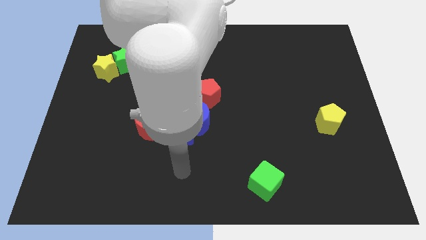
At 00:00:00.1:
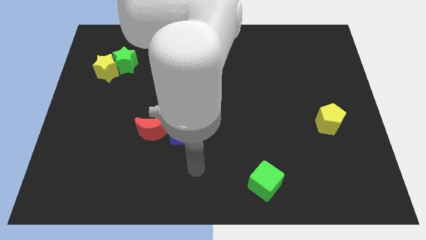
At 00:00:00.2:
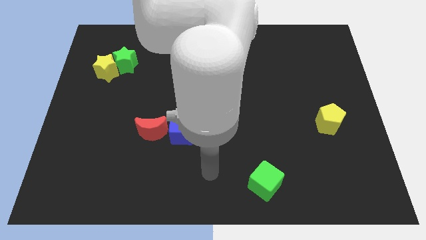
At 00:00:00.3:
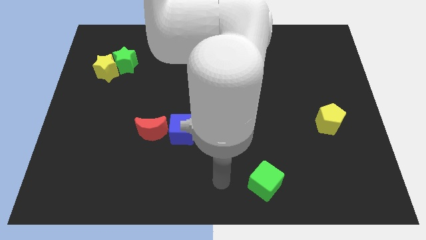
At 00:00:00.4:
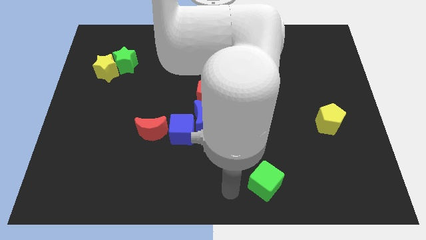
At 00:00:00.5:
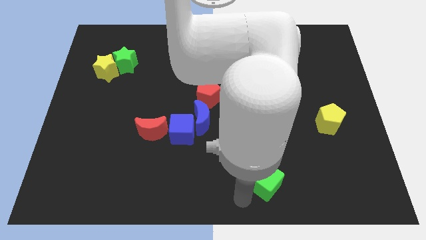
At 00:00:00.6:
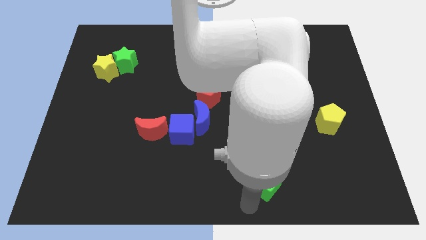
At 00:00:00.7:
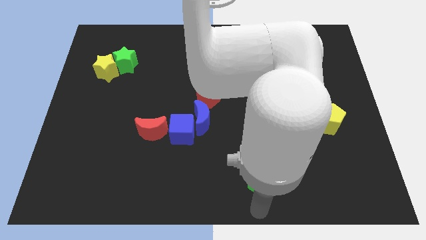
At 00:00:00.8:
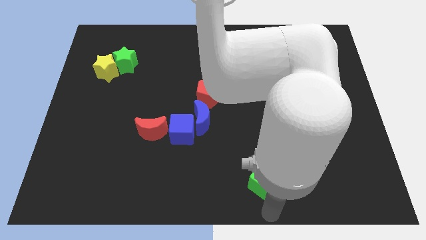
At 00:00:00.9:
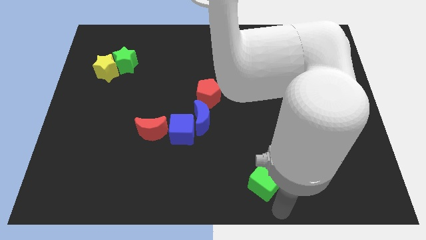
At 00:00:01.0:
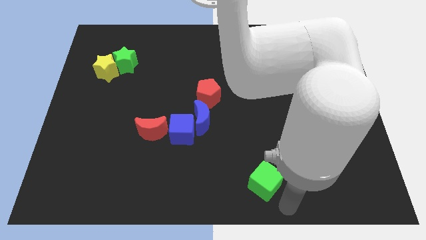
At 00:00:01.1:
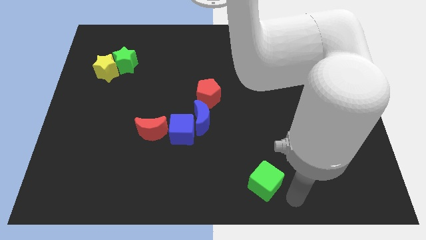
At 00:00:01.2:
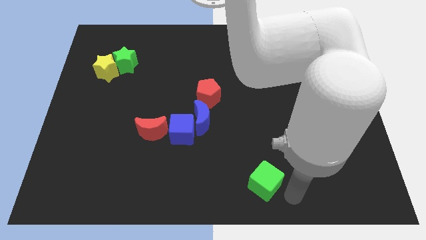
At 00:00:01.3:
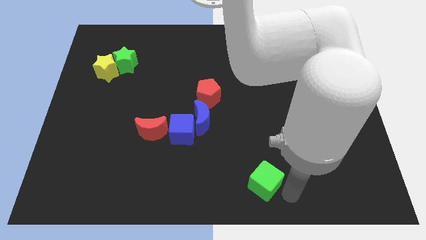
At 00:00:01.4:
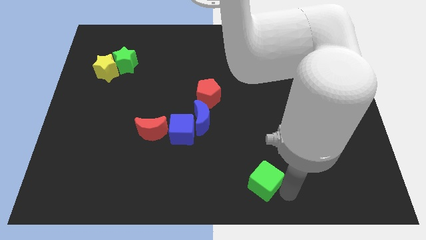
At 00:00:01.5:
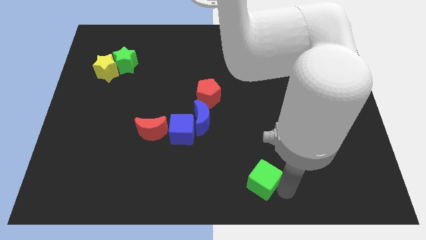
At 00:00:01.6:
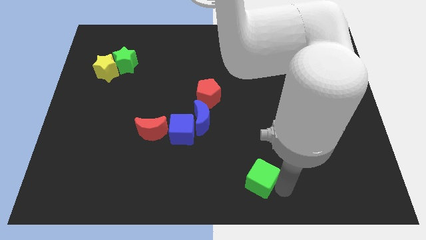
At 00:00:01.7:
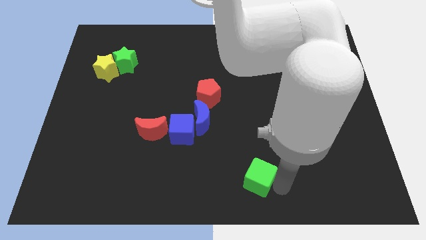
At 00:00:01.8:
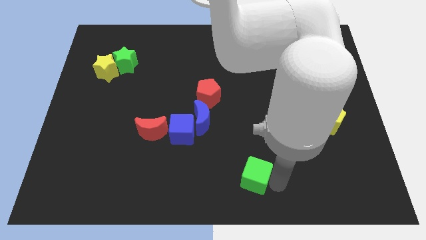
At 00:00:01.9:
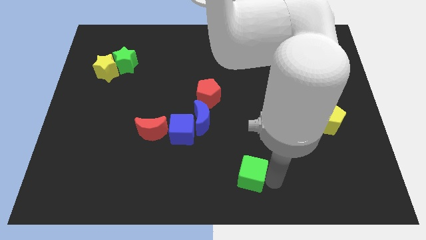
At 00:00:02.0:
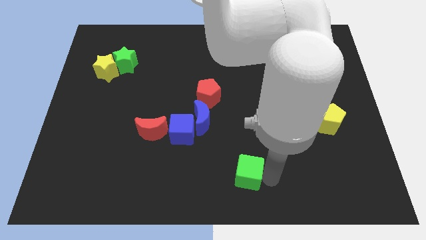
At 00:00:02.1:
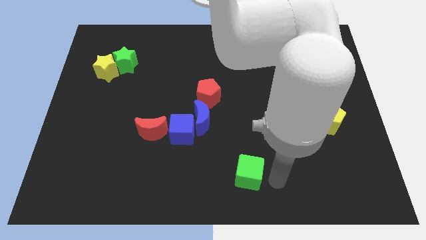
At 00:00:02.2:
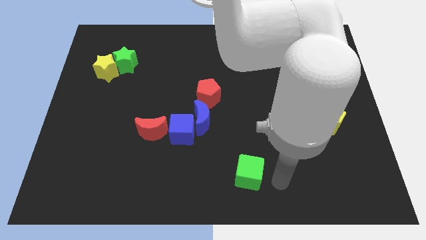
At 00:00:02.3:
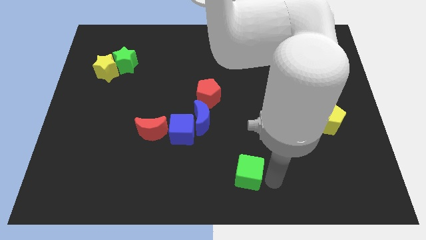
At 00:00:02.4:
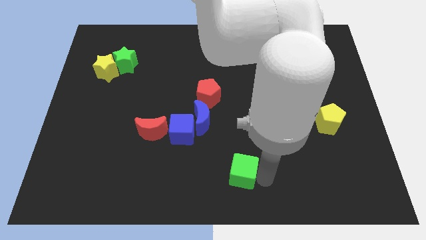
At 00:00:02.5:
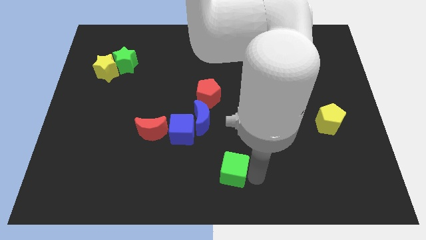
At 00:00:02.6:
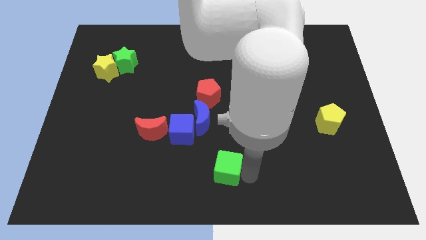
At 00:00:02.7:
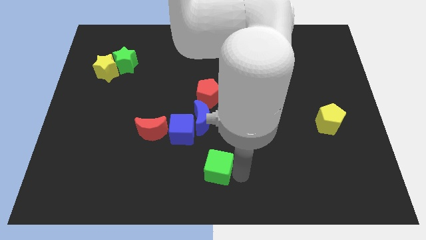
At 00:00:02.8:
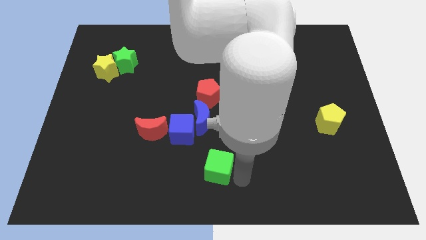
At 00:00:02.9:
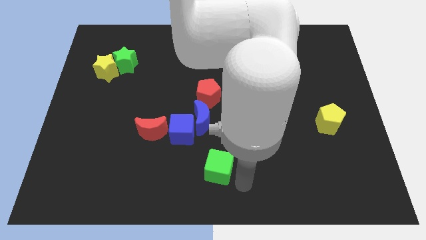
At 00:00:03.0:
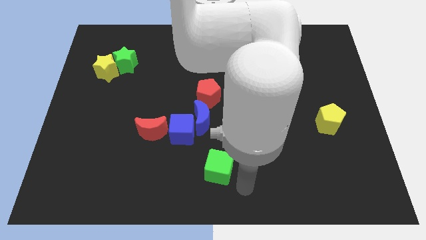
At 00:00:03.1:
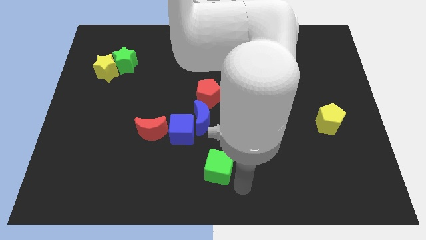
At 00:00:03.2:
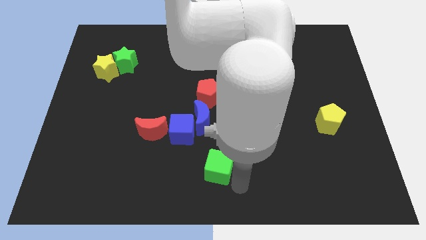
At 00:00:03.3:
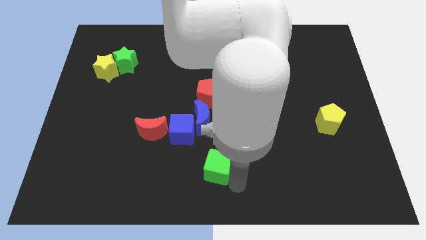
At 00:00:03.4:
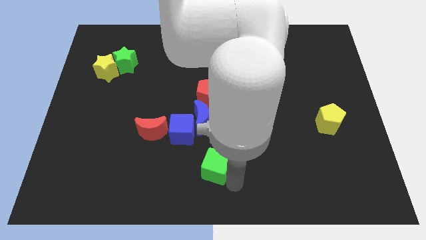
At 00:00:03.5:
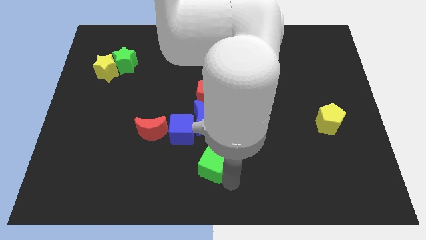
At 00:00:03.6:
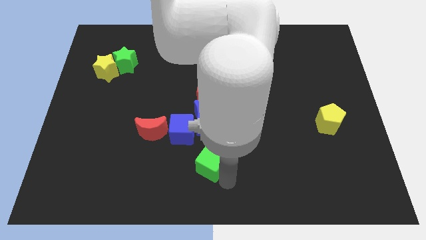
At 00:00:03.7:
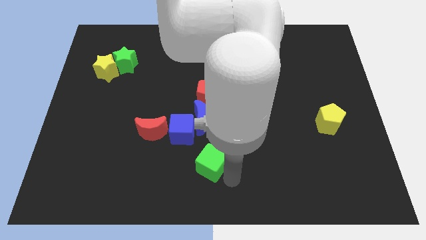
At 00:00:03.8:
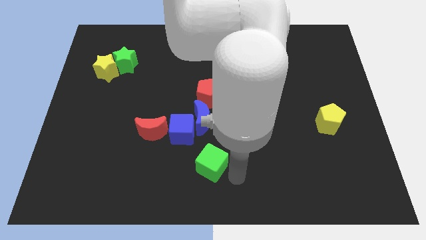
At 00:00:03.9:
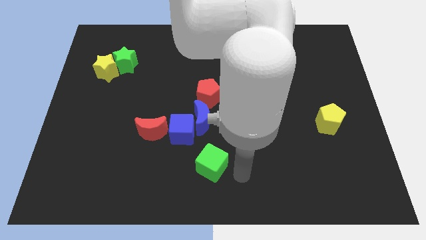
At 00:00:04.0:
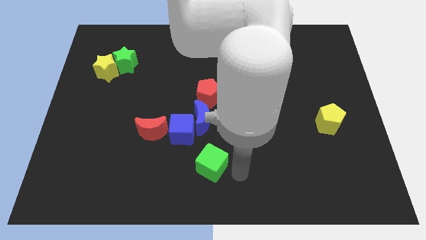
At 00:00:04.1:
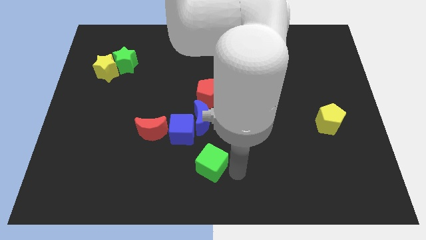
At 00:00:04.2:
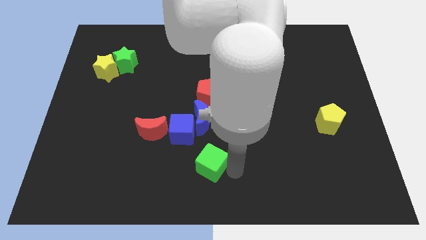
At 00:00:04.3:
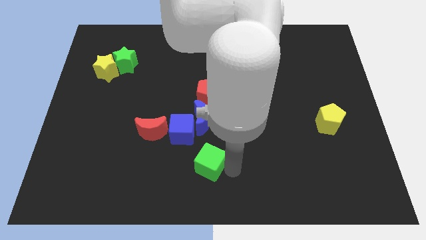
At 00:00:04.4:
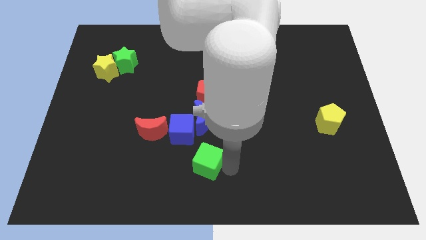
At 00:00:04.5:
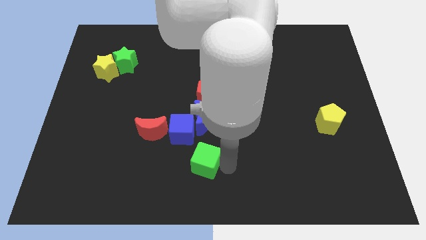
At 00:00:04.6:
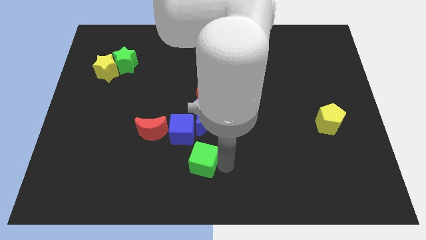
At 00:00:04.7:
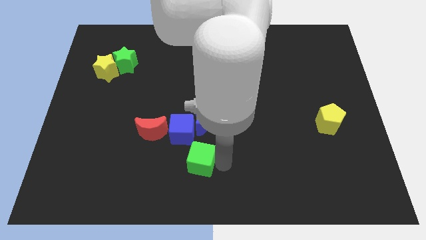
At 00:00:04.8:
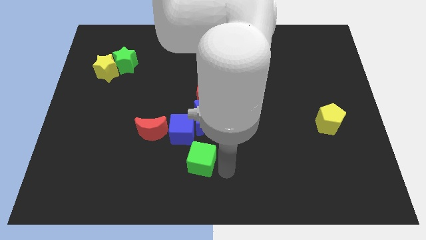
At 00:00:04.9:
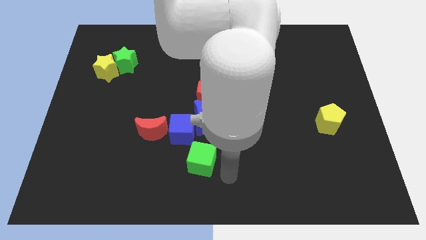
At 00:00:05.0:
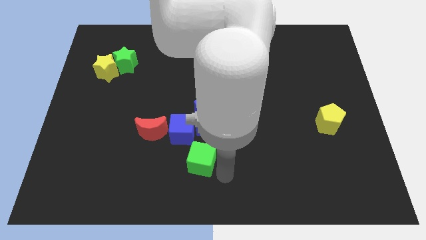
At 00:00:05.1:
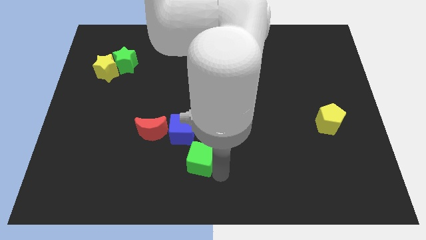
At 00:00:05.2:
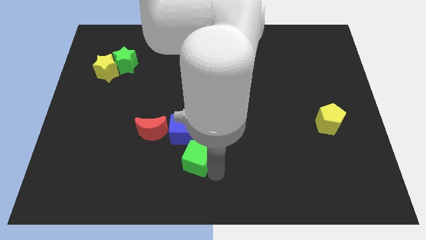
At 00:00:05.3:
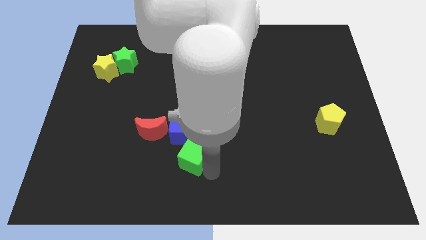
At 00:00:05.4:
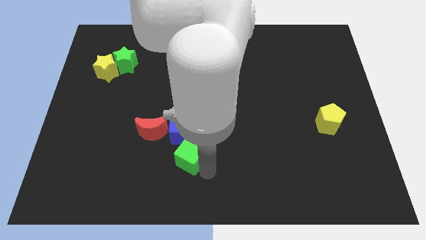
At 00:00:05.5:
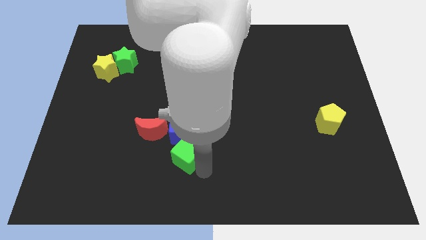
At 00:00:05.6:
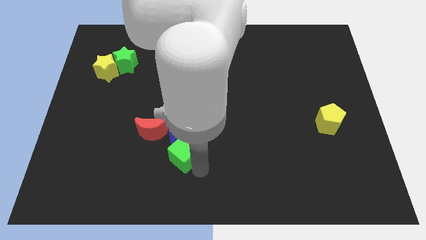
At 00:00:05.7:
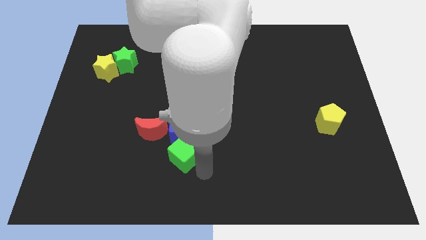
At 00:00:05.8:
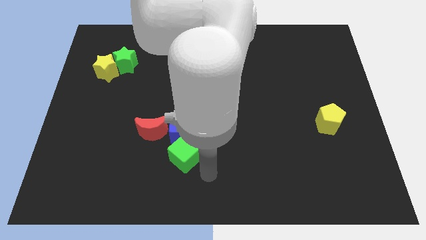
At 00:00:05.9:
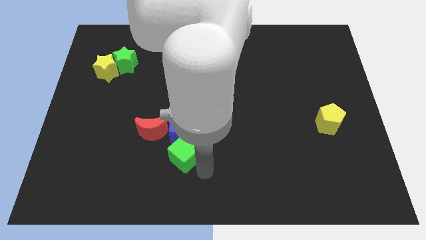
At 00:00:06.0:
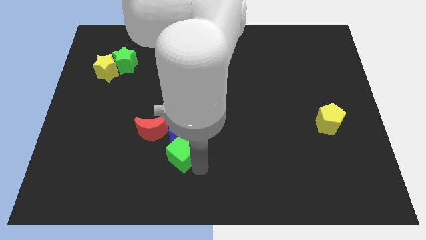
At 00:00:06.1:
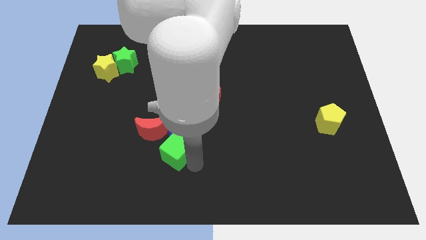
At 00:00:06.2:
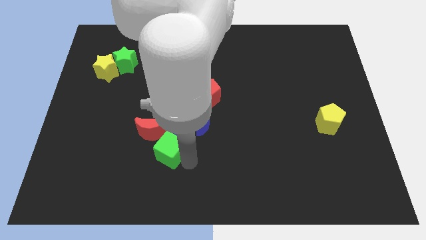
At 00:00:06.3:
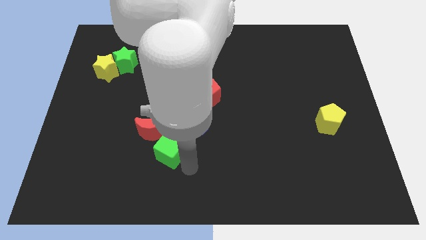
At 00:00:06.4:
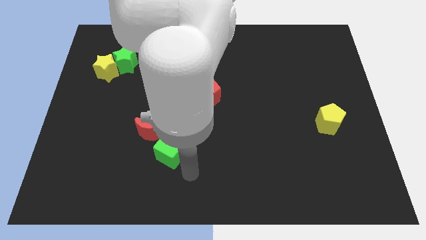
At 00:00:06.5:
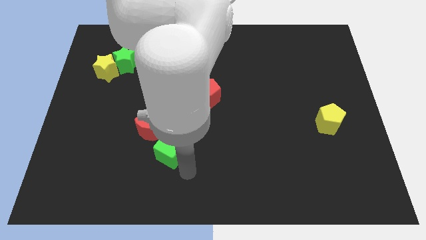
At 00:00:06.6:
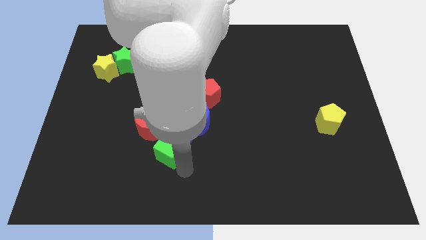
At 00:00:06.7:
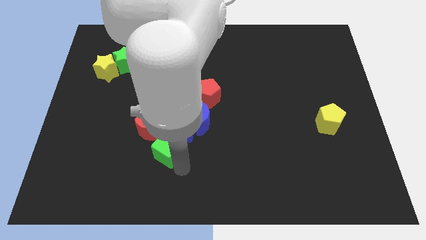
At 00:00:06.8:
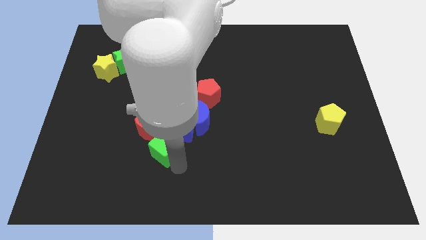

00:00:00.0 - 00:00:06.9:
slide the green cube towards the red moon
